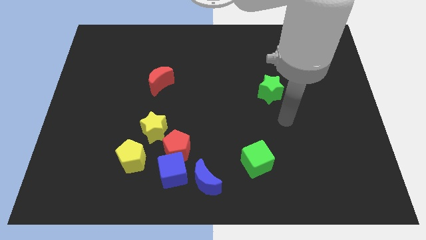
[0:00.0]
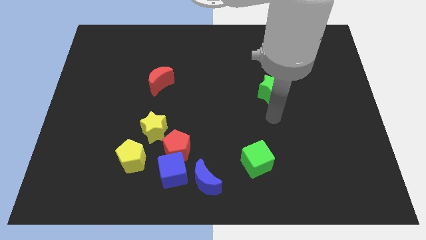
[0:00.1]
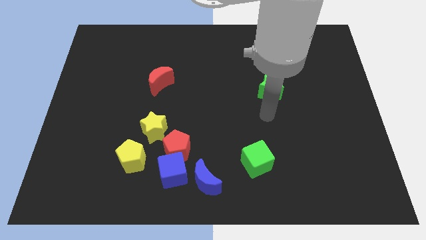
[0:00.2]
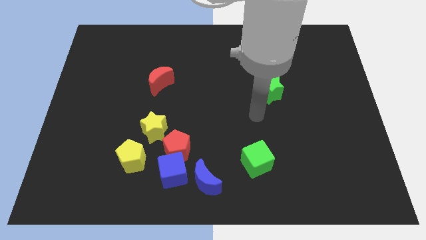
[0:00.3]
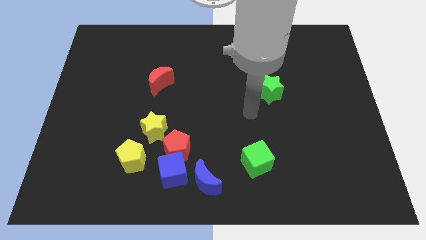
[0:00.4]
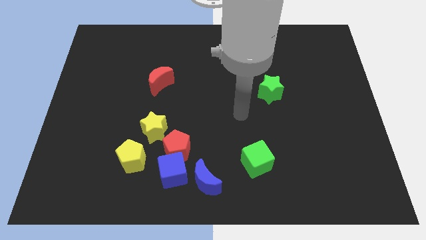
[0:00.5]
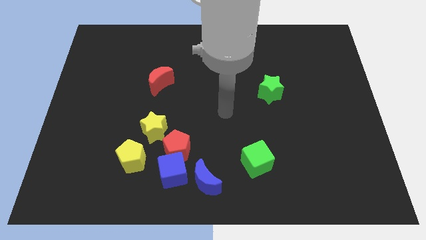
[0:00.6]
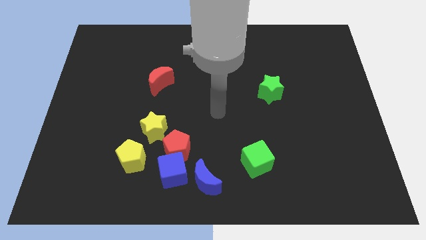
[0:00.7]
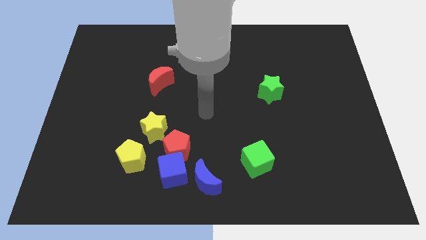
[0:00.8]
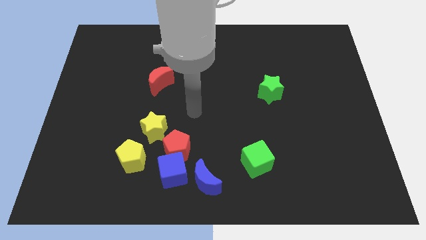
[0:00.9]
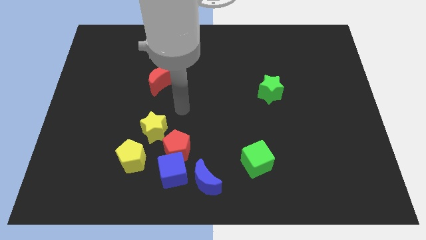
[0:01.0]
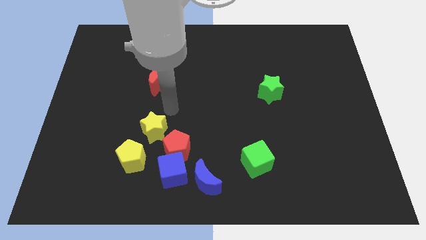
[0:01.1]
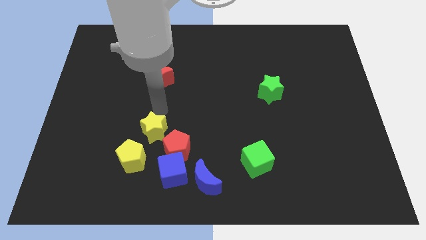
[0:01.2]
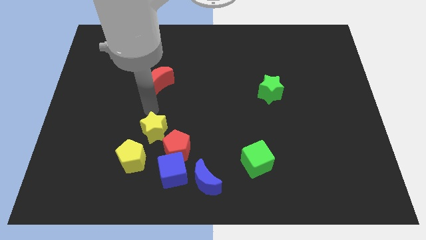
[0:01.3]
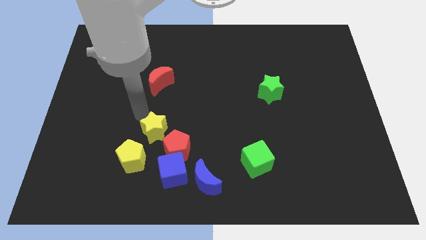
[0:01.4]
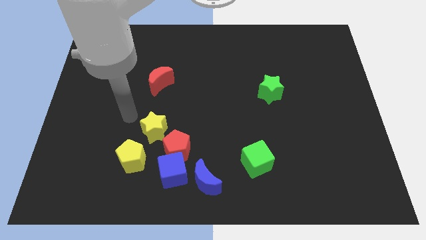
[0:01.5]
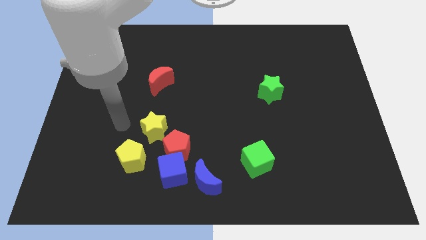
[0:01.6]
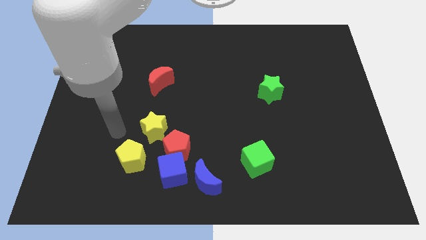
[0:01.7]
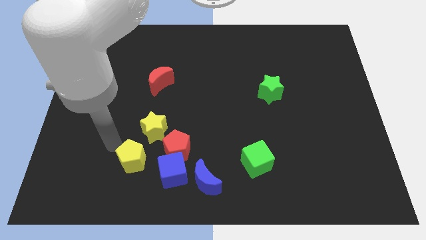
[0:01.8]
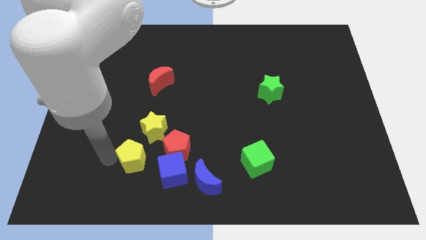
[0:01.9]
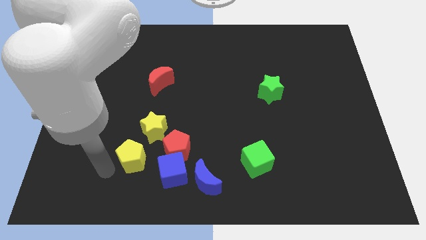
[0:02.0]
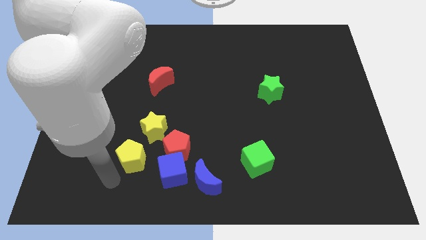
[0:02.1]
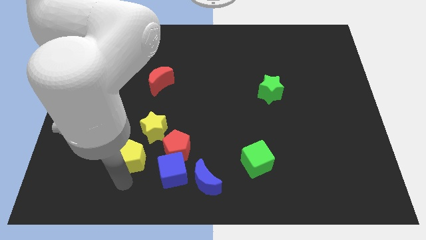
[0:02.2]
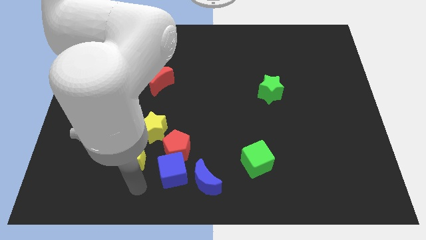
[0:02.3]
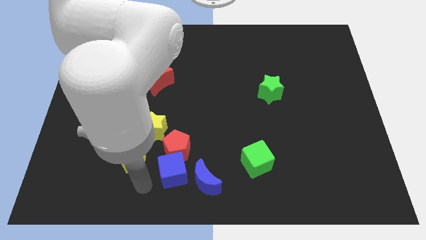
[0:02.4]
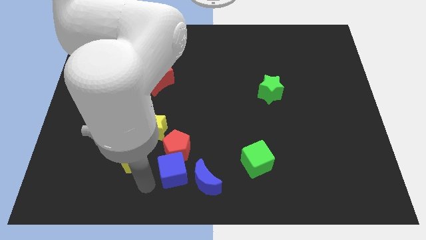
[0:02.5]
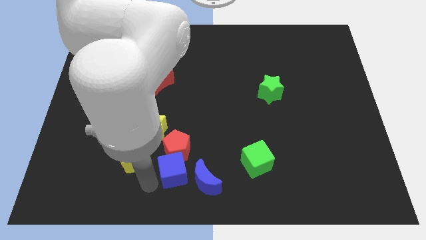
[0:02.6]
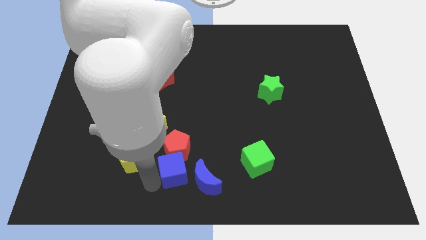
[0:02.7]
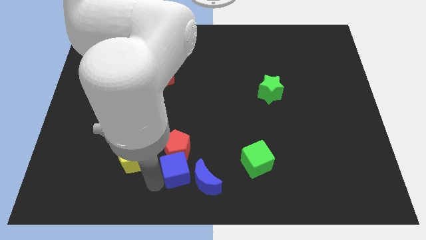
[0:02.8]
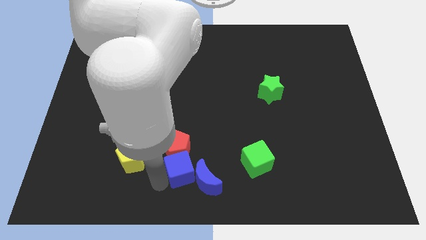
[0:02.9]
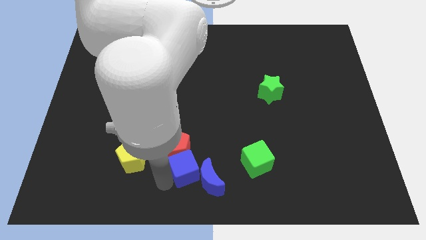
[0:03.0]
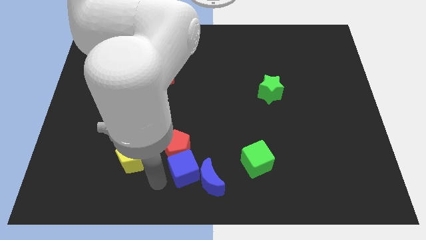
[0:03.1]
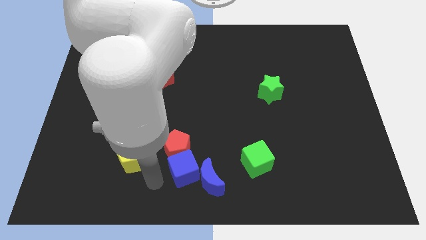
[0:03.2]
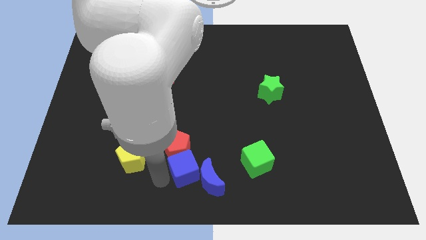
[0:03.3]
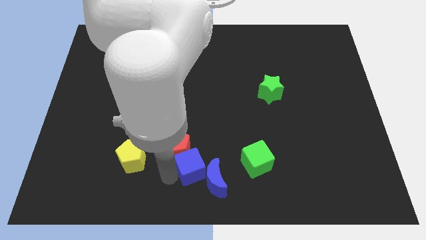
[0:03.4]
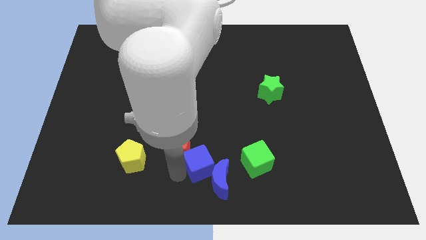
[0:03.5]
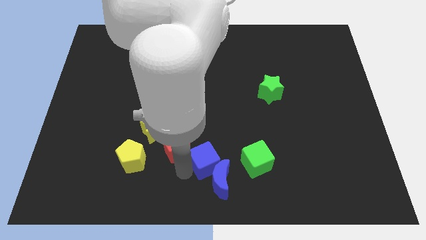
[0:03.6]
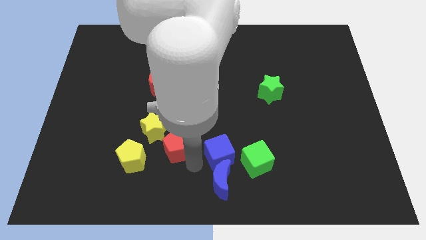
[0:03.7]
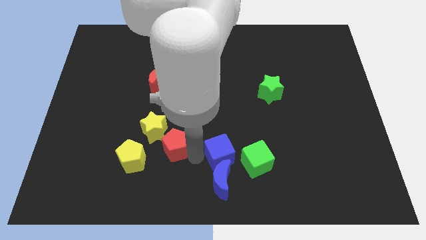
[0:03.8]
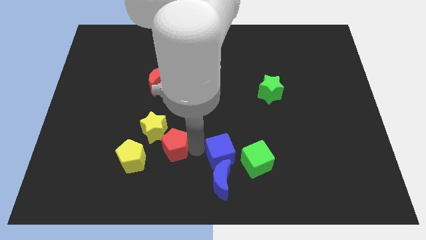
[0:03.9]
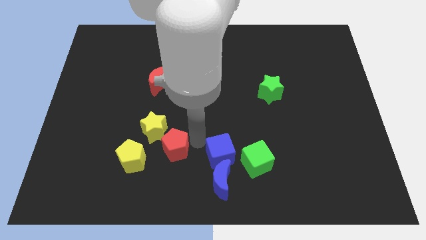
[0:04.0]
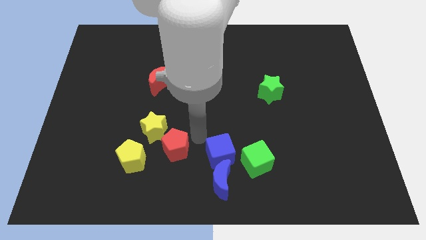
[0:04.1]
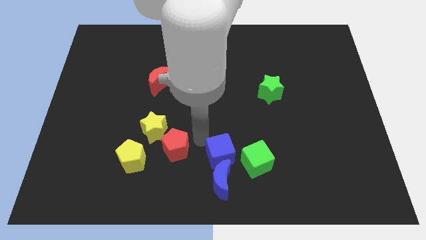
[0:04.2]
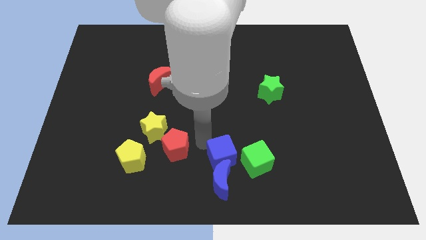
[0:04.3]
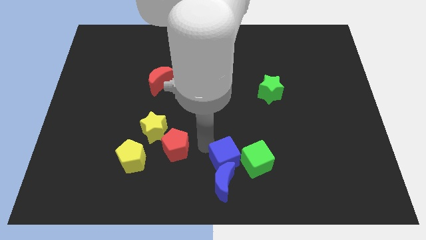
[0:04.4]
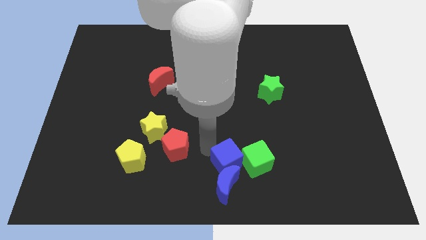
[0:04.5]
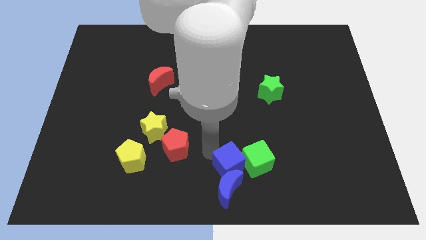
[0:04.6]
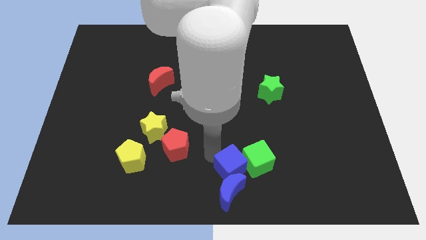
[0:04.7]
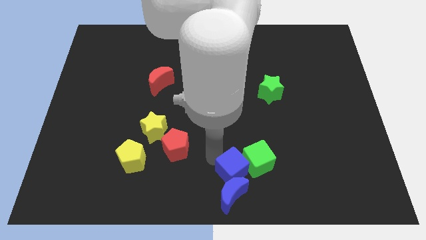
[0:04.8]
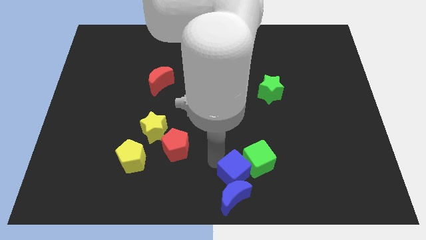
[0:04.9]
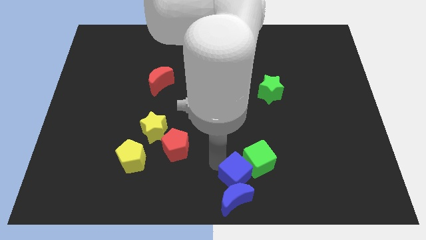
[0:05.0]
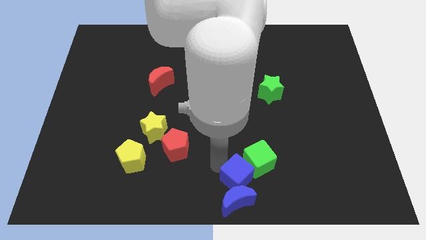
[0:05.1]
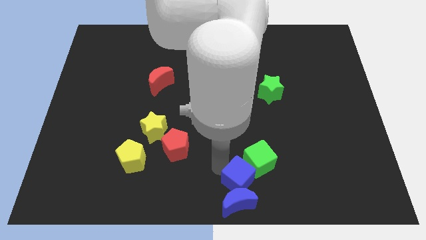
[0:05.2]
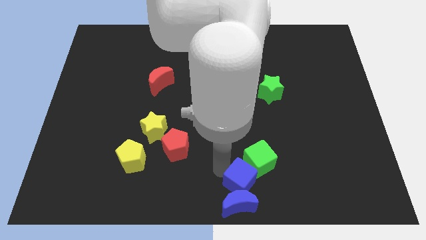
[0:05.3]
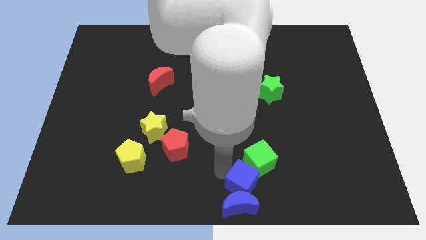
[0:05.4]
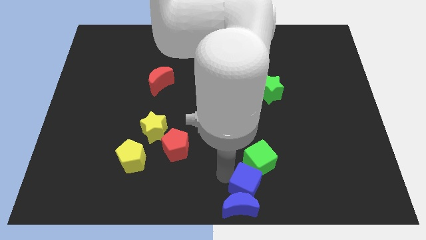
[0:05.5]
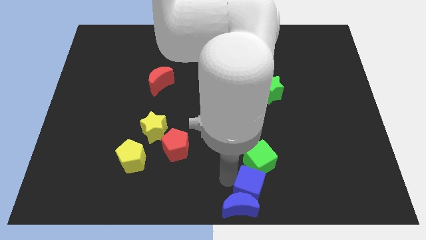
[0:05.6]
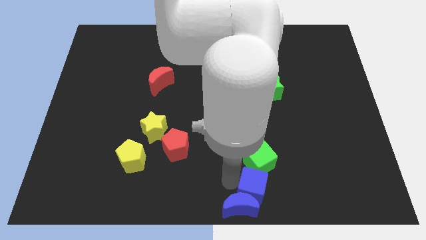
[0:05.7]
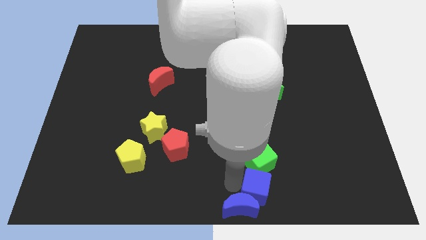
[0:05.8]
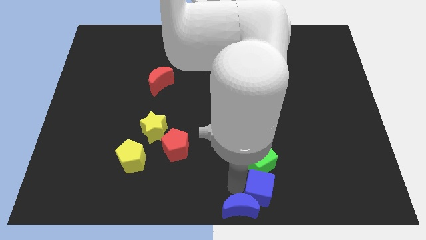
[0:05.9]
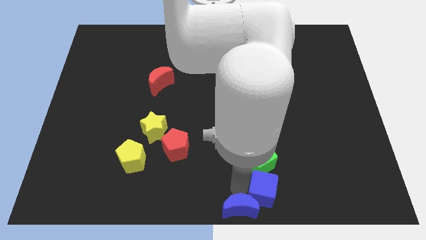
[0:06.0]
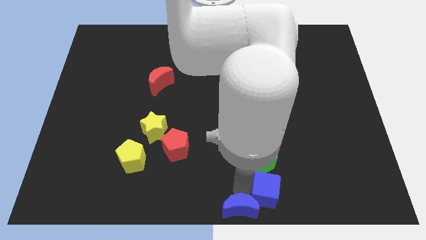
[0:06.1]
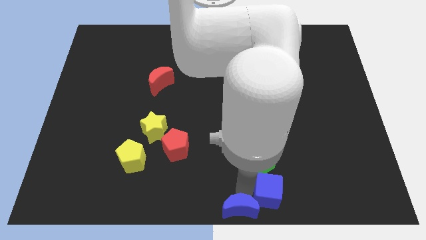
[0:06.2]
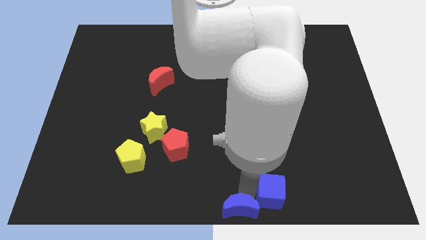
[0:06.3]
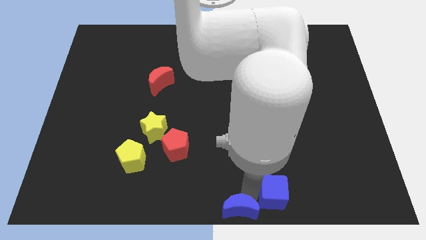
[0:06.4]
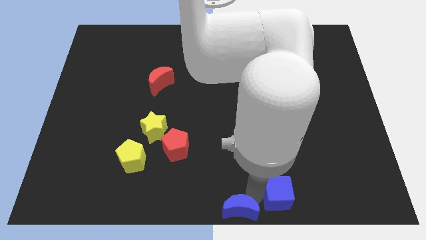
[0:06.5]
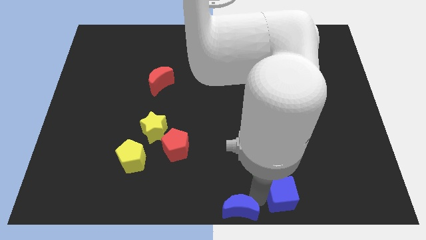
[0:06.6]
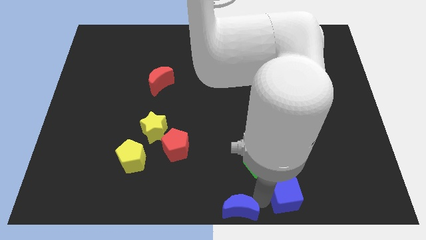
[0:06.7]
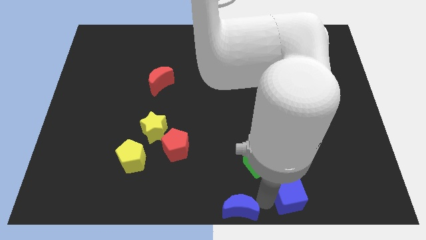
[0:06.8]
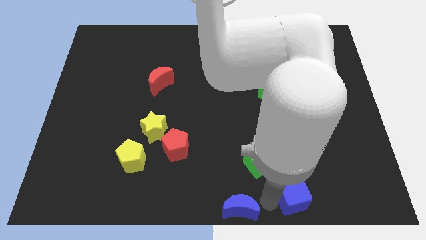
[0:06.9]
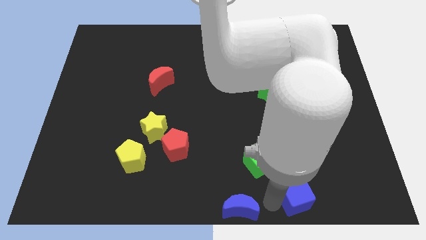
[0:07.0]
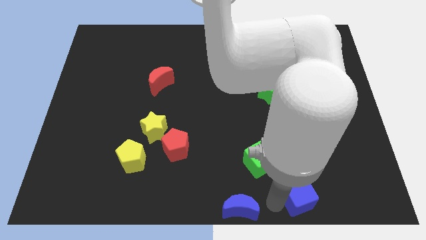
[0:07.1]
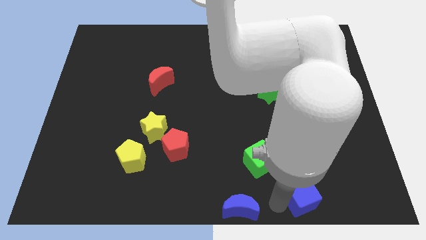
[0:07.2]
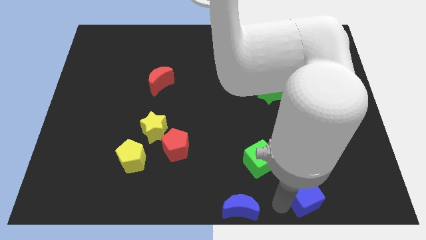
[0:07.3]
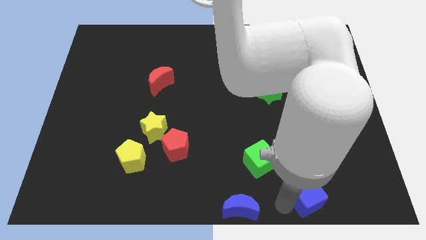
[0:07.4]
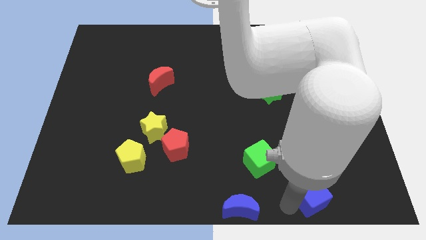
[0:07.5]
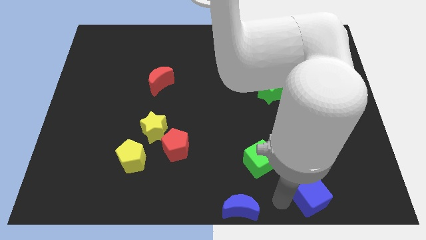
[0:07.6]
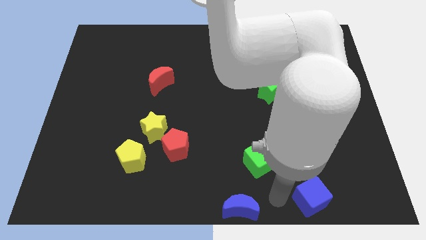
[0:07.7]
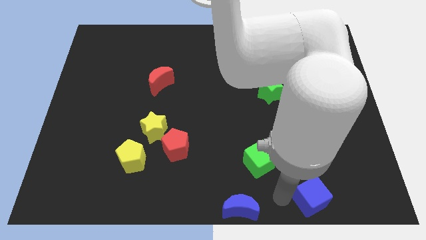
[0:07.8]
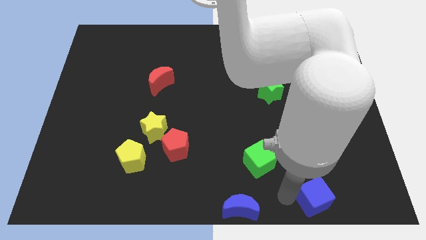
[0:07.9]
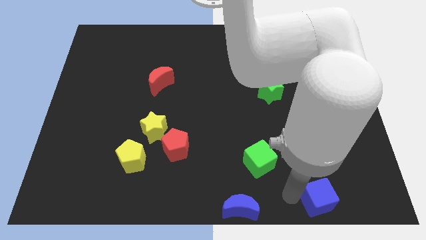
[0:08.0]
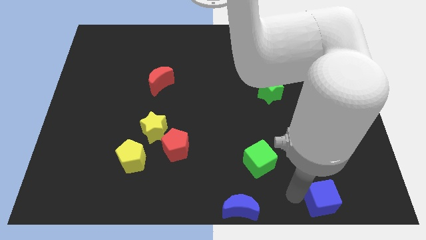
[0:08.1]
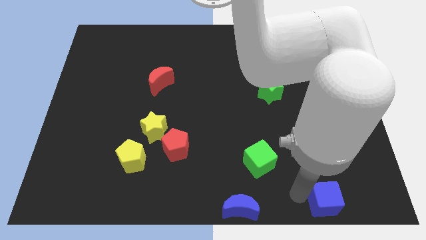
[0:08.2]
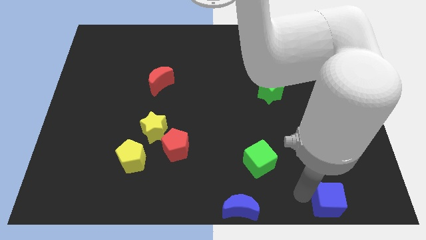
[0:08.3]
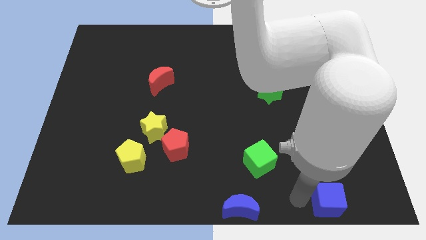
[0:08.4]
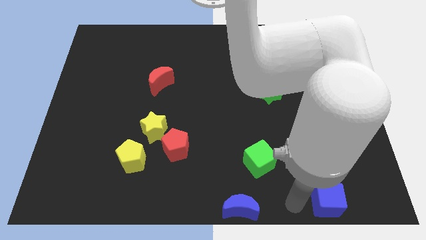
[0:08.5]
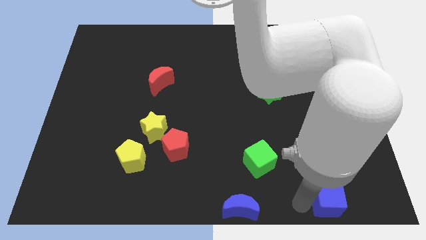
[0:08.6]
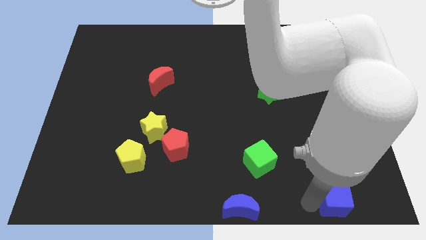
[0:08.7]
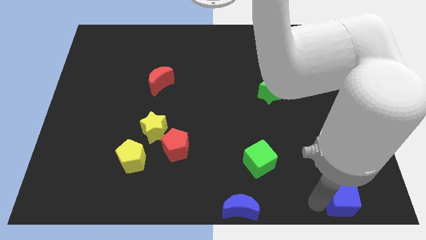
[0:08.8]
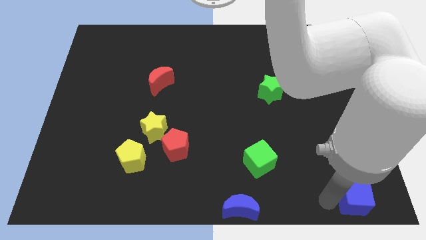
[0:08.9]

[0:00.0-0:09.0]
slide the blue cube to the bottom right corner
